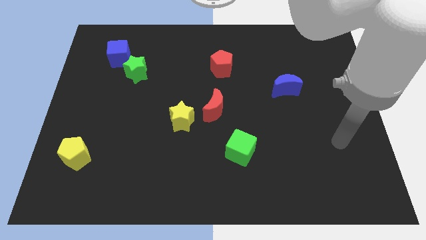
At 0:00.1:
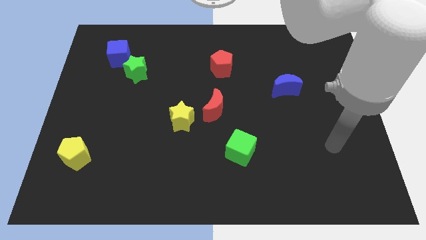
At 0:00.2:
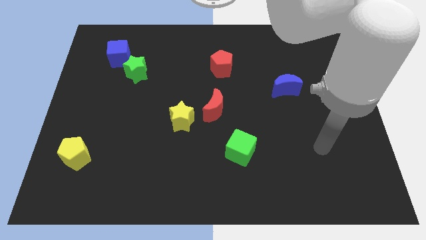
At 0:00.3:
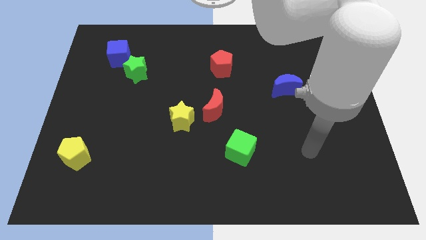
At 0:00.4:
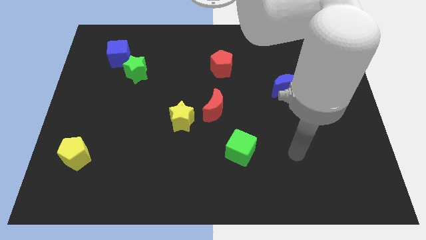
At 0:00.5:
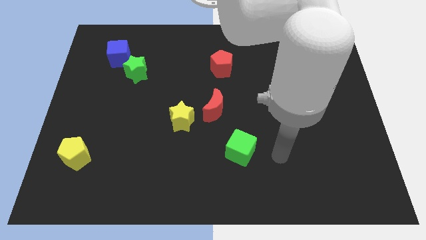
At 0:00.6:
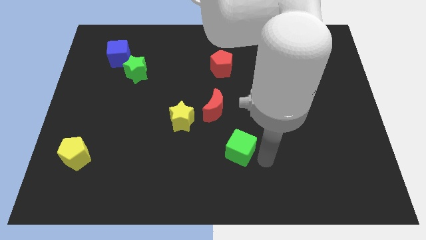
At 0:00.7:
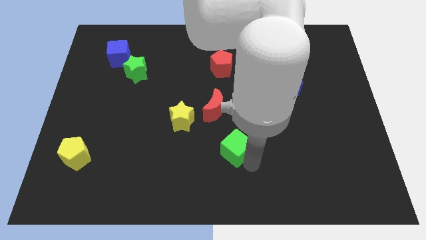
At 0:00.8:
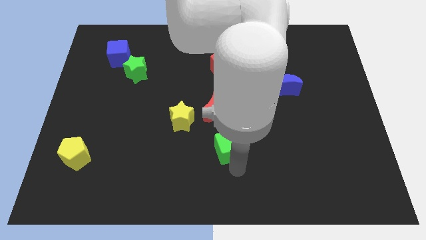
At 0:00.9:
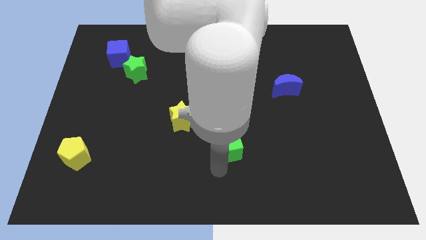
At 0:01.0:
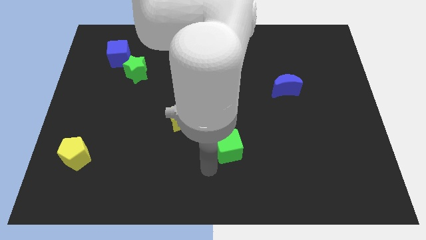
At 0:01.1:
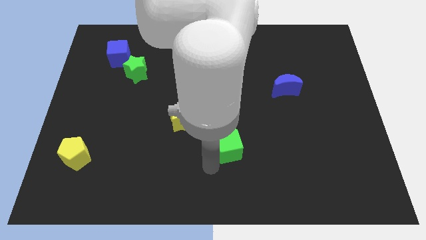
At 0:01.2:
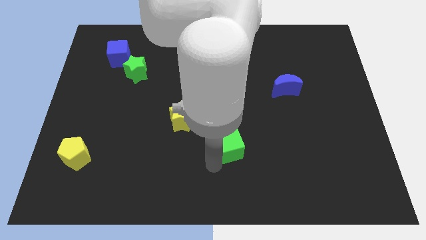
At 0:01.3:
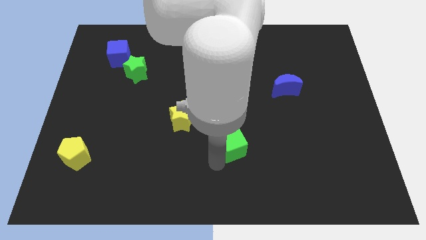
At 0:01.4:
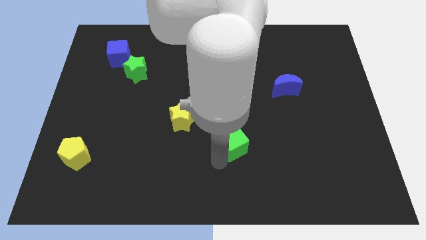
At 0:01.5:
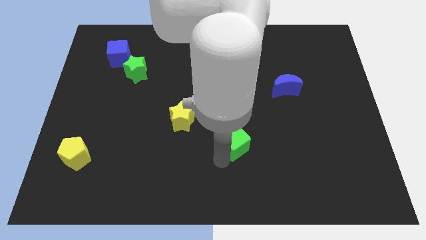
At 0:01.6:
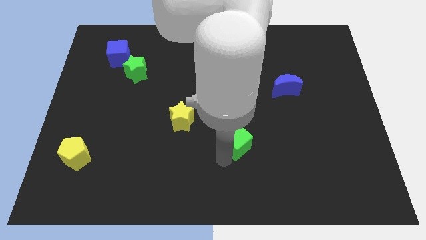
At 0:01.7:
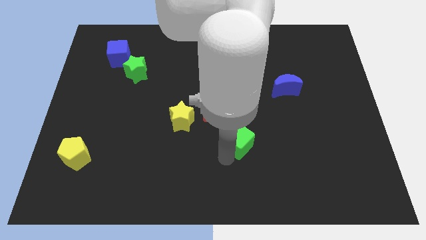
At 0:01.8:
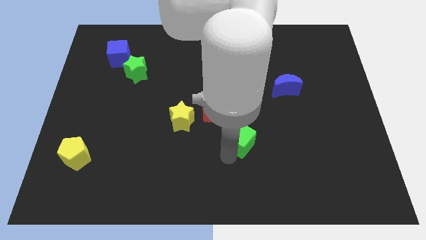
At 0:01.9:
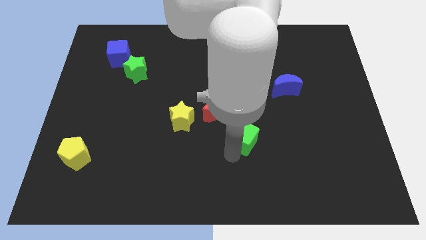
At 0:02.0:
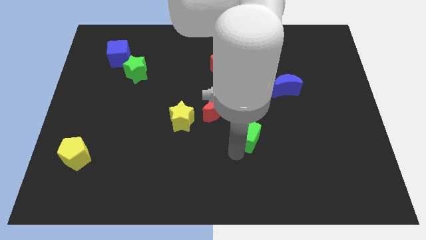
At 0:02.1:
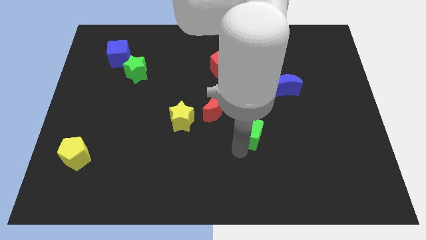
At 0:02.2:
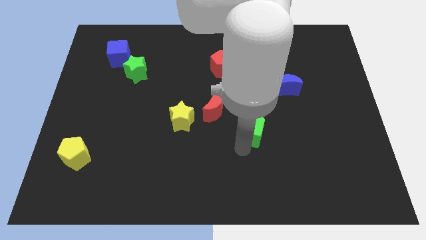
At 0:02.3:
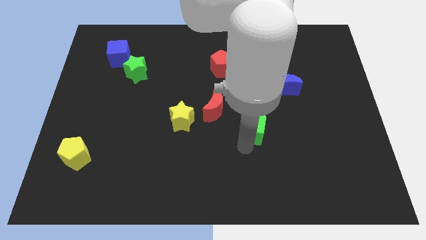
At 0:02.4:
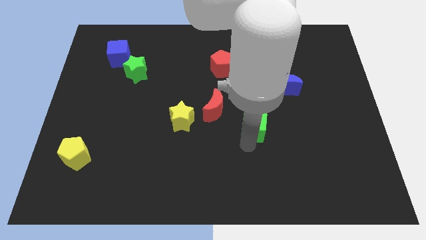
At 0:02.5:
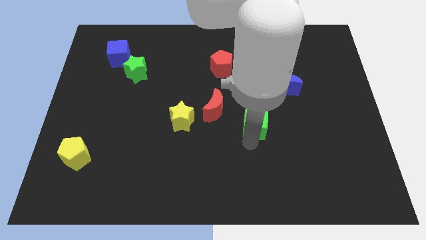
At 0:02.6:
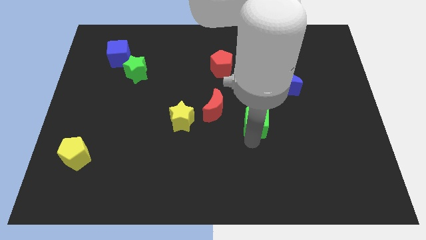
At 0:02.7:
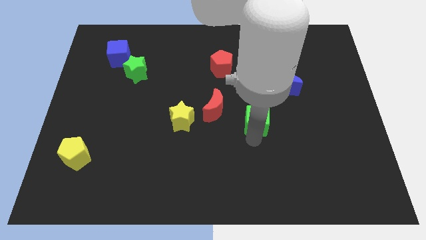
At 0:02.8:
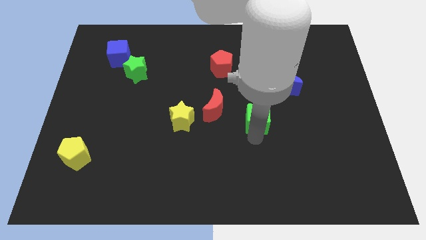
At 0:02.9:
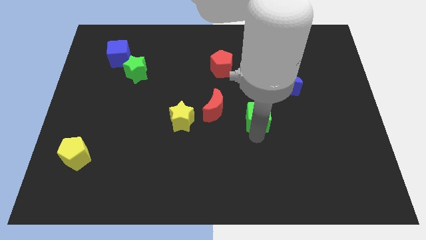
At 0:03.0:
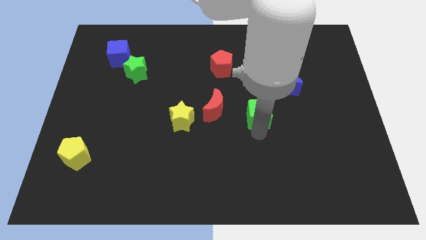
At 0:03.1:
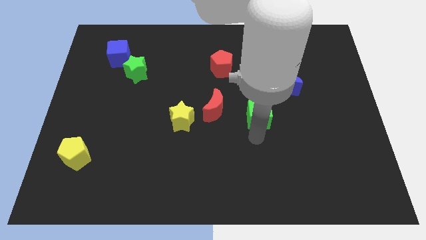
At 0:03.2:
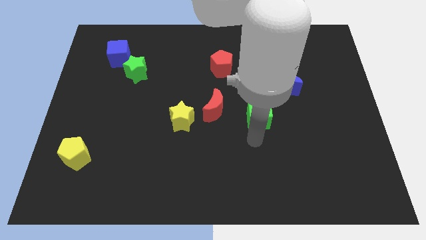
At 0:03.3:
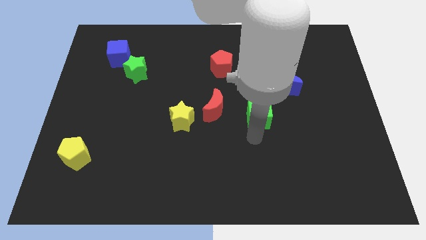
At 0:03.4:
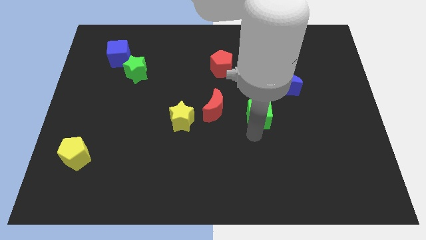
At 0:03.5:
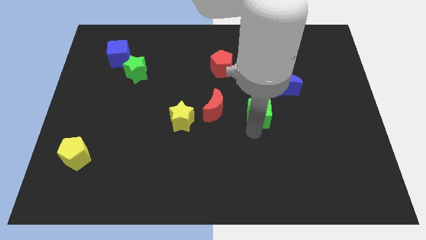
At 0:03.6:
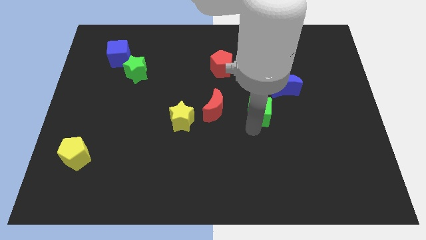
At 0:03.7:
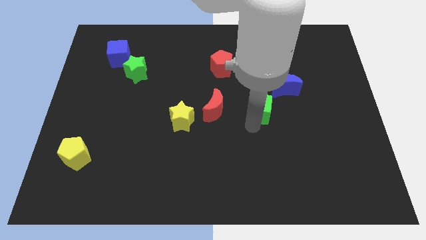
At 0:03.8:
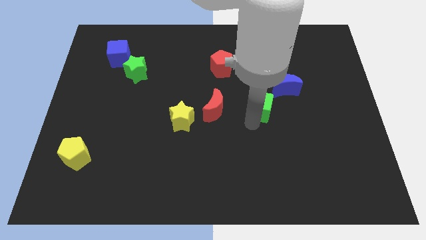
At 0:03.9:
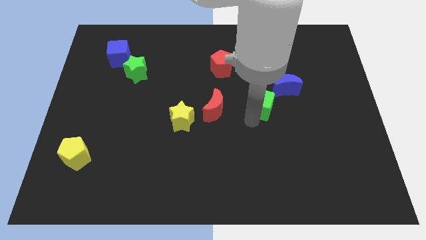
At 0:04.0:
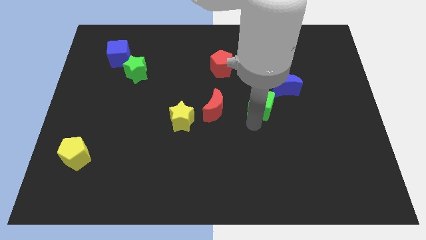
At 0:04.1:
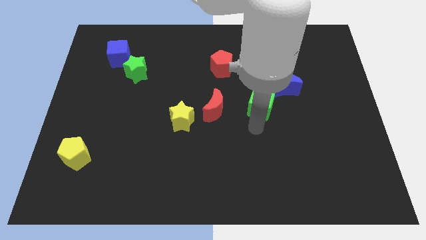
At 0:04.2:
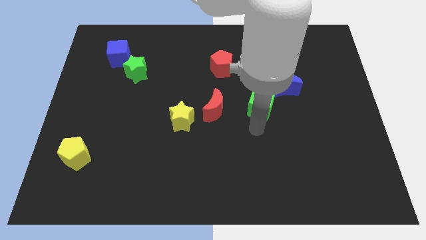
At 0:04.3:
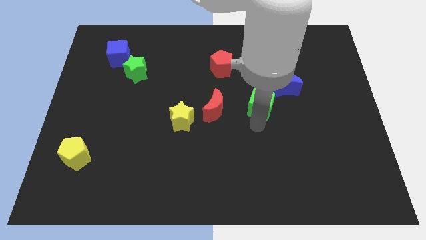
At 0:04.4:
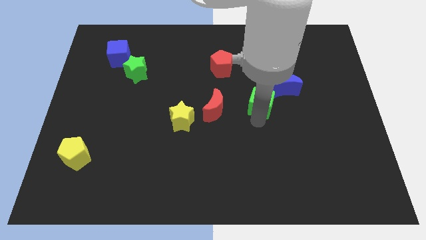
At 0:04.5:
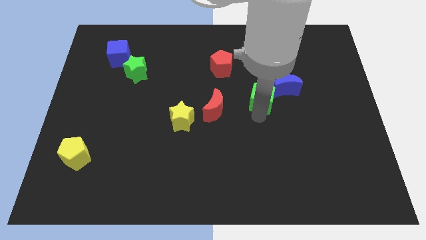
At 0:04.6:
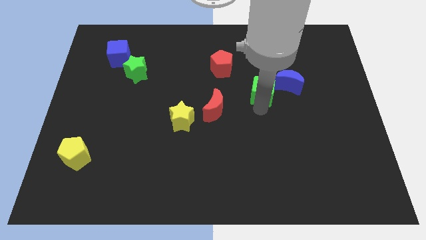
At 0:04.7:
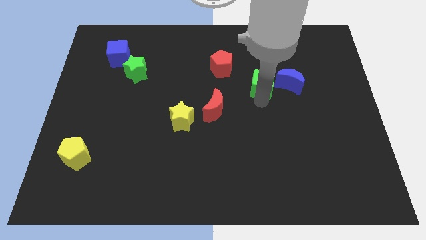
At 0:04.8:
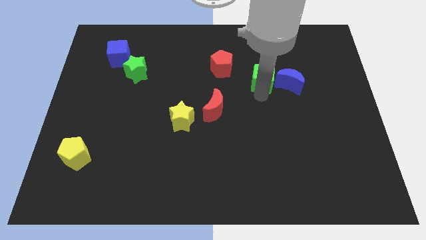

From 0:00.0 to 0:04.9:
slide the green cube diagonally up and to the left of the blue moon

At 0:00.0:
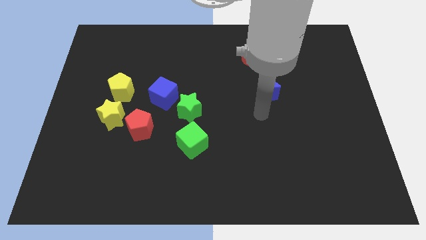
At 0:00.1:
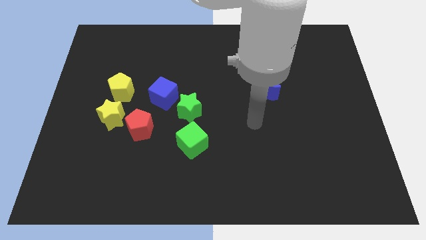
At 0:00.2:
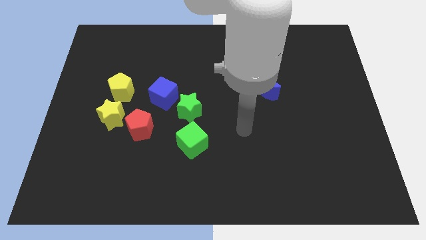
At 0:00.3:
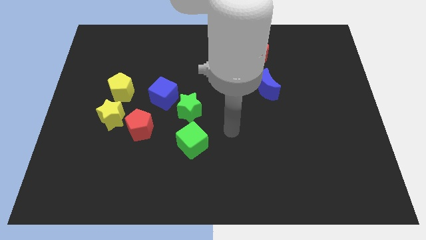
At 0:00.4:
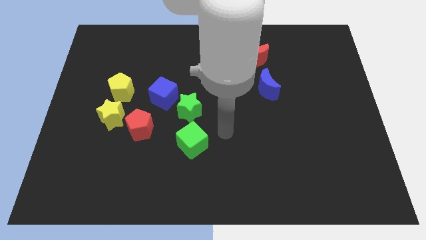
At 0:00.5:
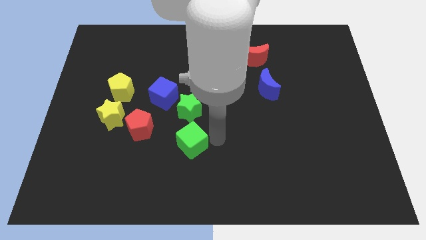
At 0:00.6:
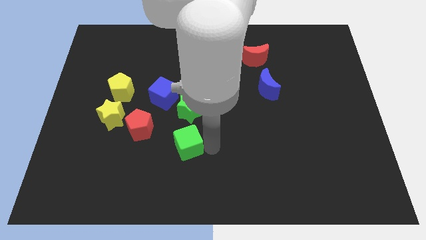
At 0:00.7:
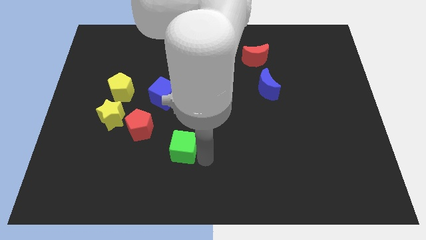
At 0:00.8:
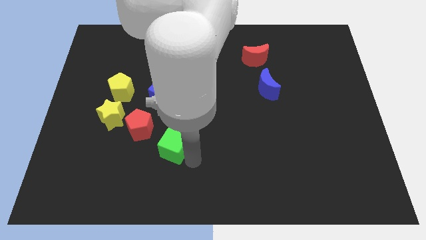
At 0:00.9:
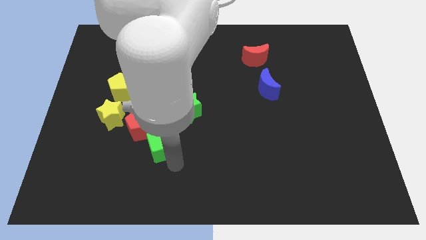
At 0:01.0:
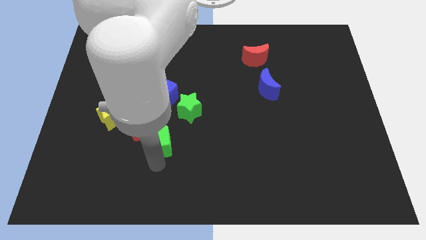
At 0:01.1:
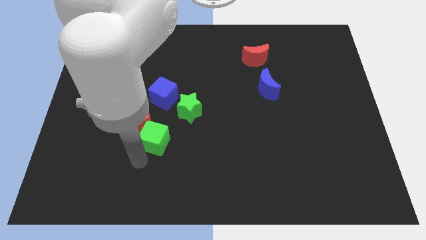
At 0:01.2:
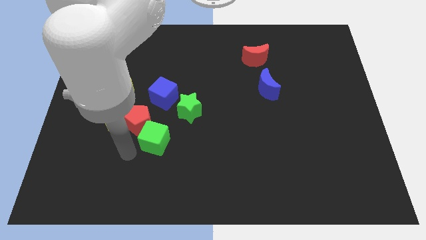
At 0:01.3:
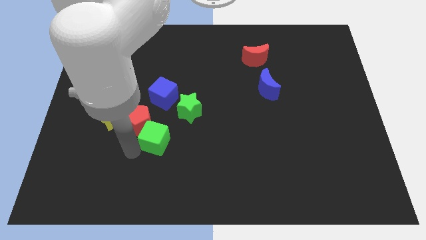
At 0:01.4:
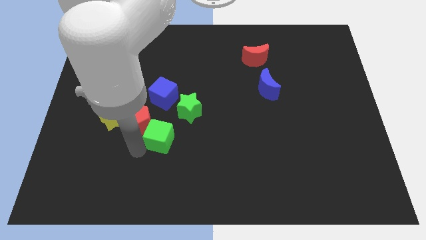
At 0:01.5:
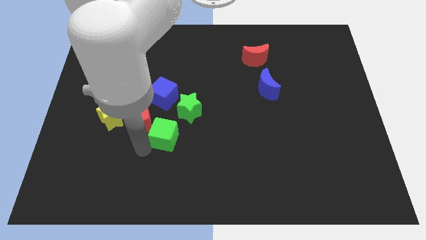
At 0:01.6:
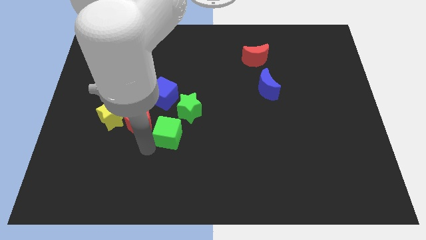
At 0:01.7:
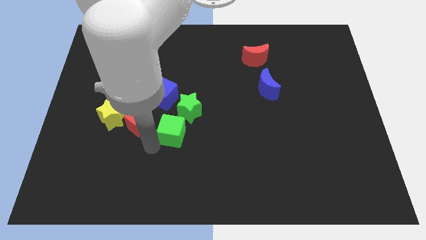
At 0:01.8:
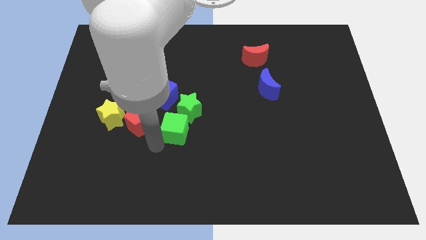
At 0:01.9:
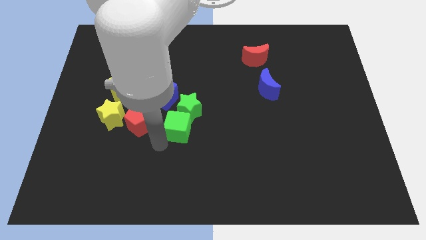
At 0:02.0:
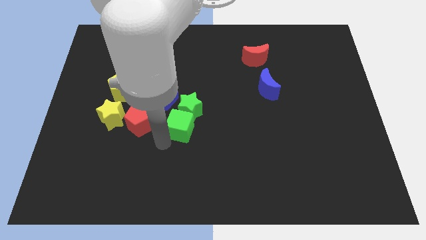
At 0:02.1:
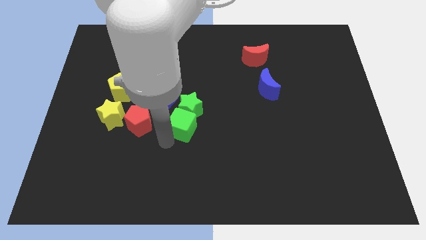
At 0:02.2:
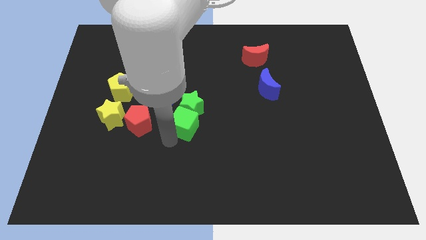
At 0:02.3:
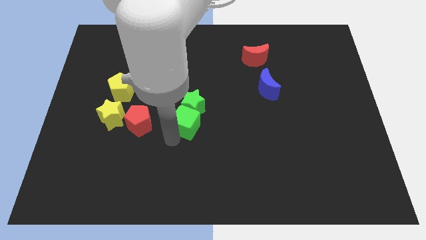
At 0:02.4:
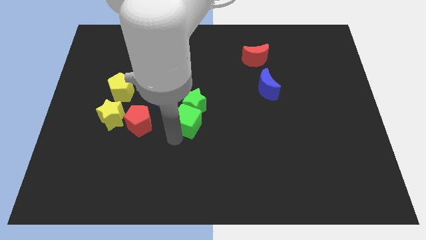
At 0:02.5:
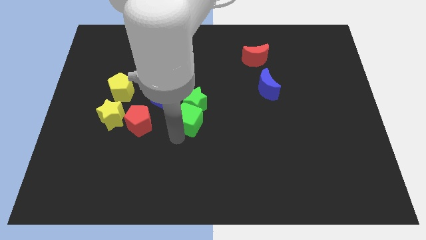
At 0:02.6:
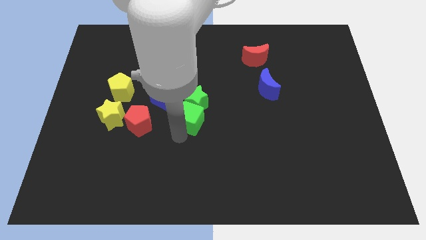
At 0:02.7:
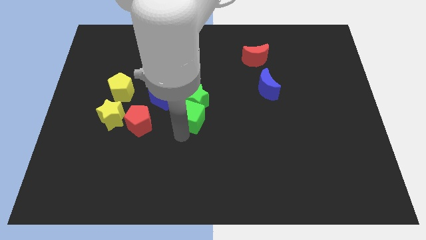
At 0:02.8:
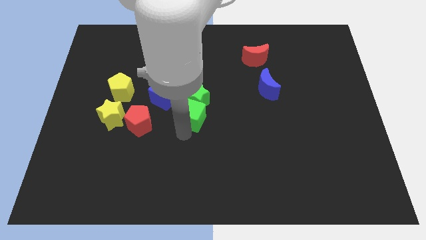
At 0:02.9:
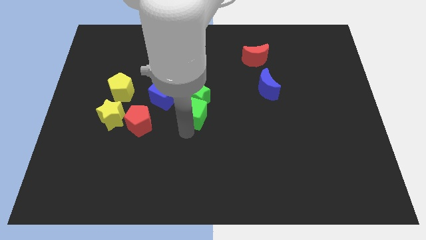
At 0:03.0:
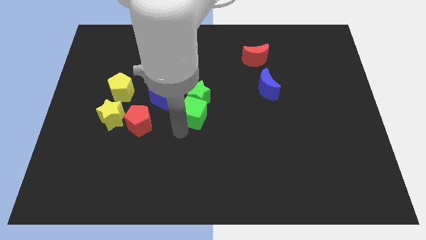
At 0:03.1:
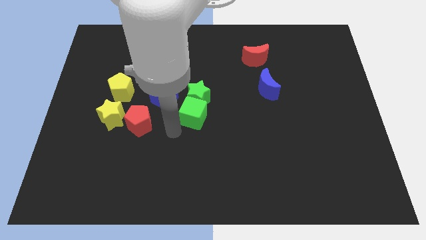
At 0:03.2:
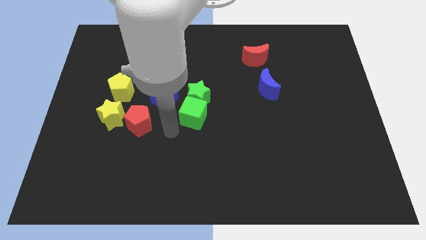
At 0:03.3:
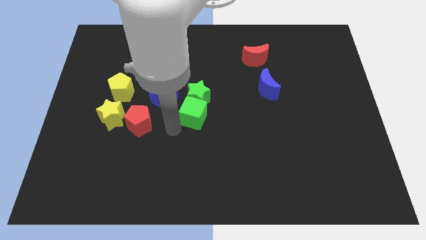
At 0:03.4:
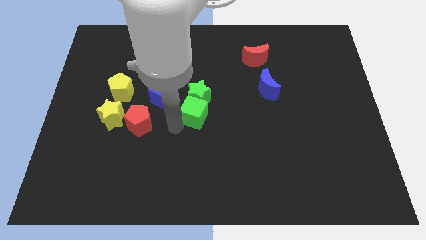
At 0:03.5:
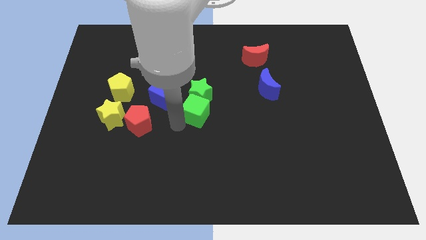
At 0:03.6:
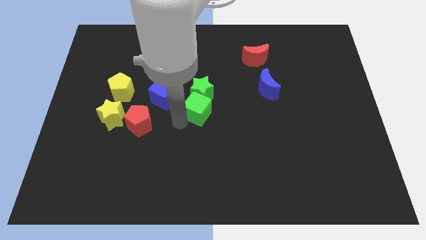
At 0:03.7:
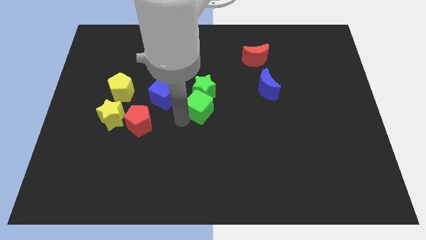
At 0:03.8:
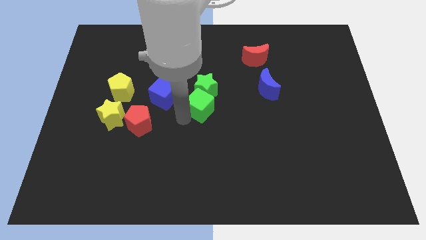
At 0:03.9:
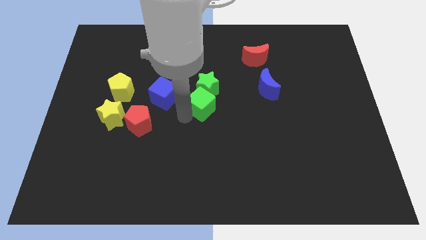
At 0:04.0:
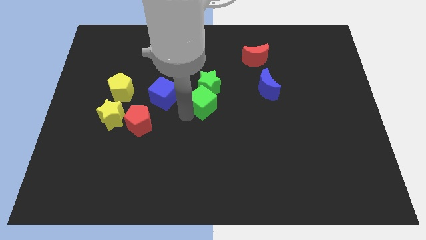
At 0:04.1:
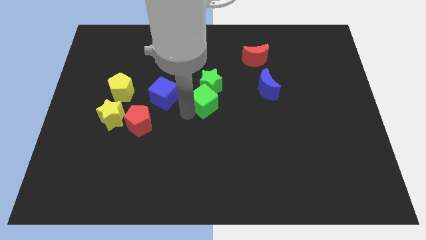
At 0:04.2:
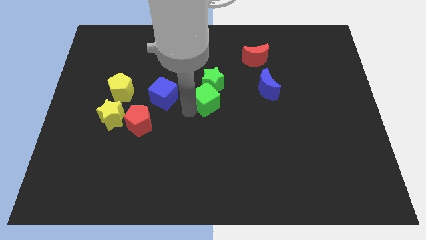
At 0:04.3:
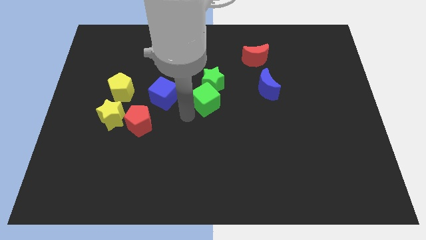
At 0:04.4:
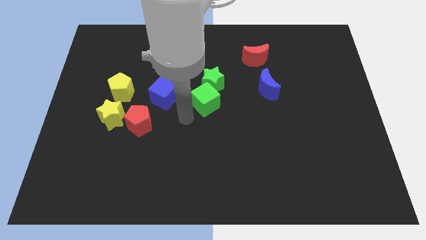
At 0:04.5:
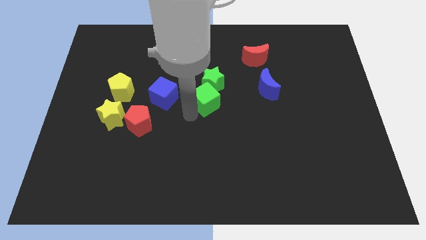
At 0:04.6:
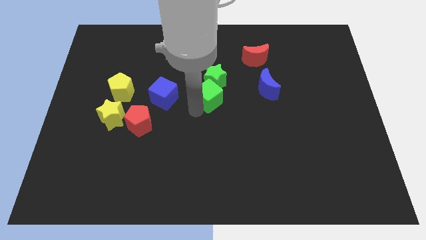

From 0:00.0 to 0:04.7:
push the green cube to the left of the blue moon
